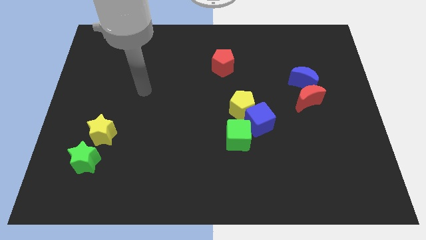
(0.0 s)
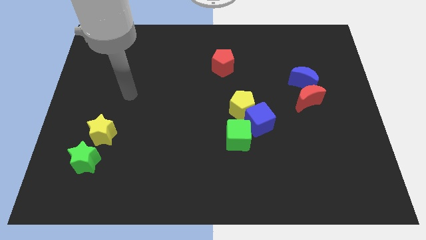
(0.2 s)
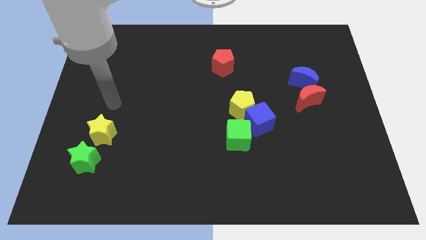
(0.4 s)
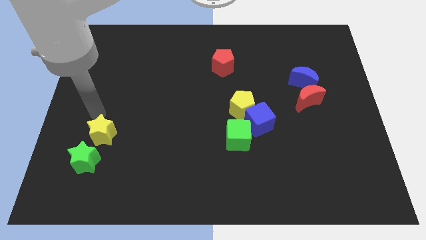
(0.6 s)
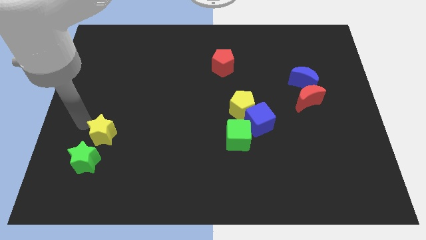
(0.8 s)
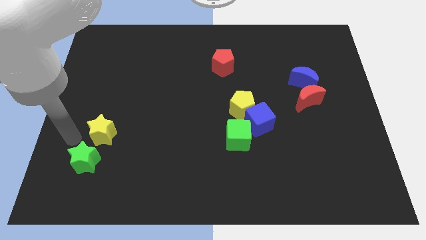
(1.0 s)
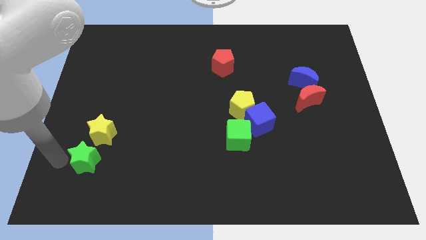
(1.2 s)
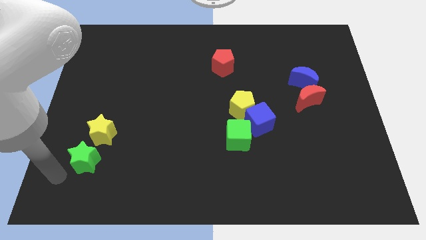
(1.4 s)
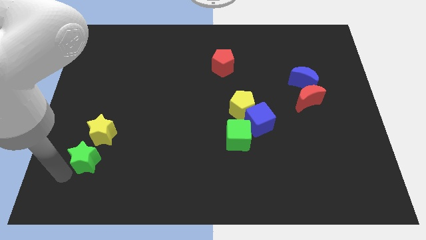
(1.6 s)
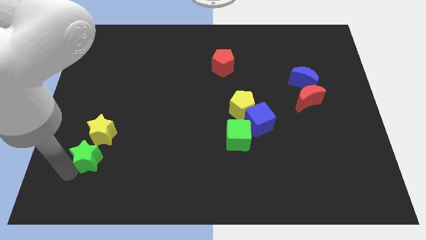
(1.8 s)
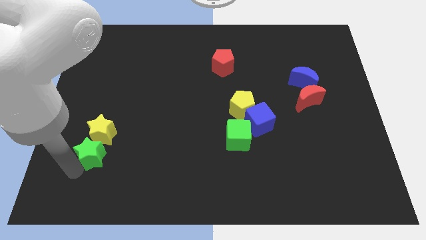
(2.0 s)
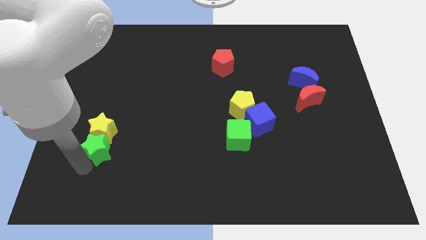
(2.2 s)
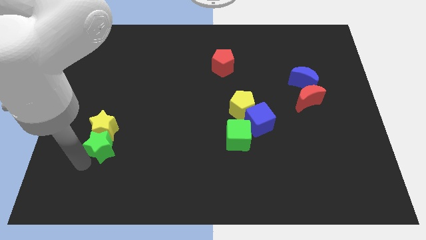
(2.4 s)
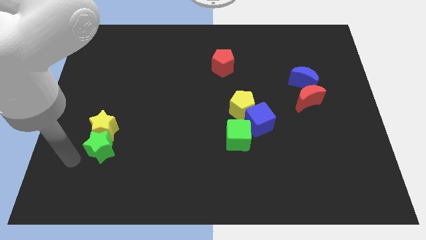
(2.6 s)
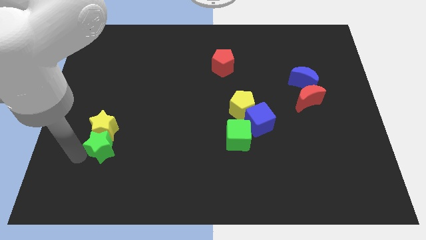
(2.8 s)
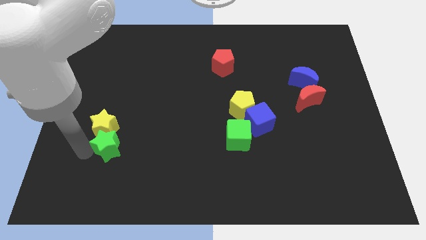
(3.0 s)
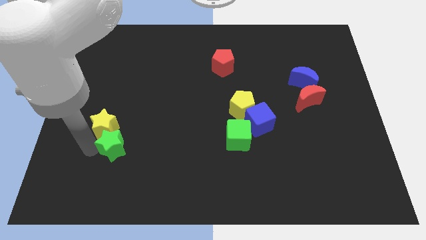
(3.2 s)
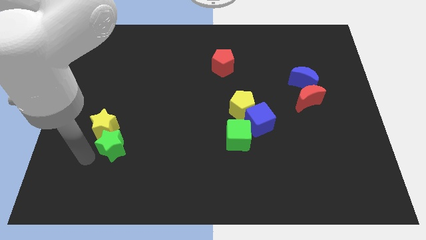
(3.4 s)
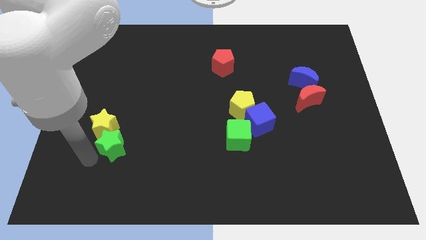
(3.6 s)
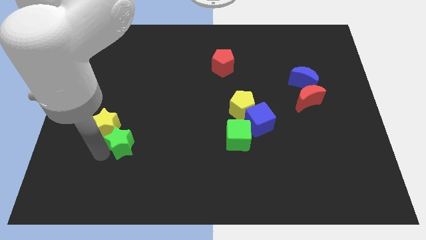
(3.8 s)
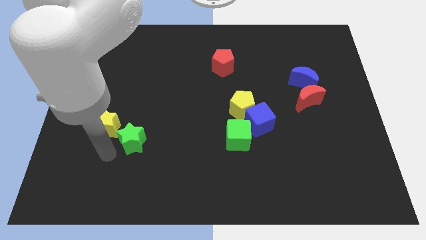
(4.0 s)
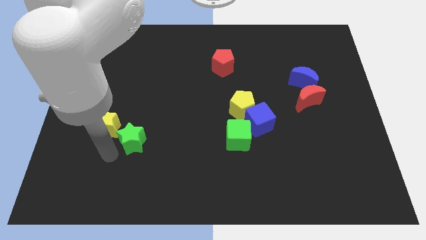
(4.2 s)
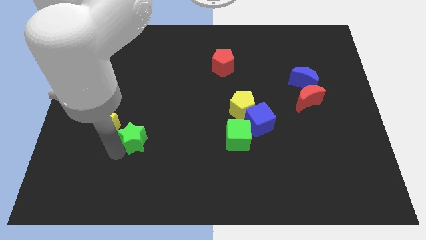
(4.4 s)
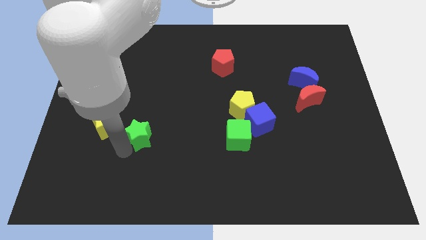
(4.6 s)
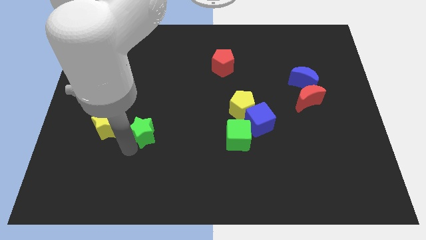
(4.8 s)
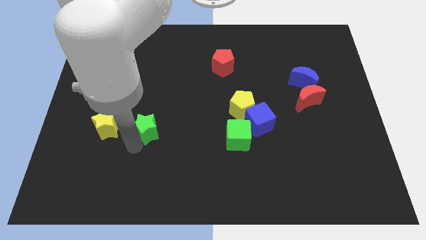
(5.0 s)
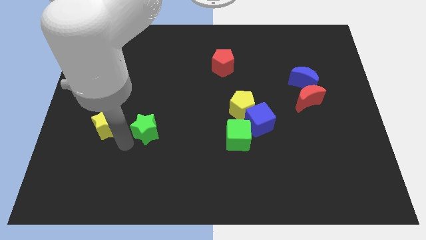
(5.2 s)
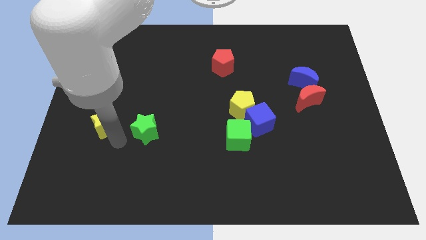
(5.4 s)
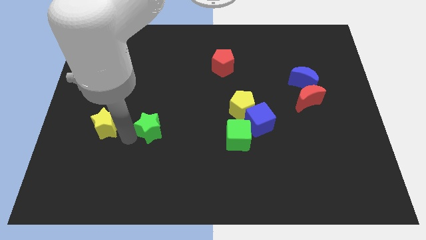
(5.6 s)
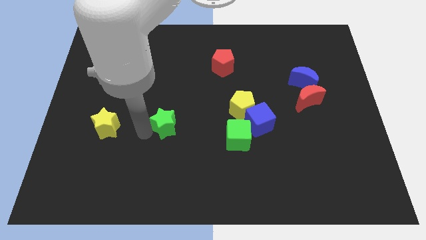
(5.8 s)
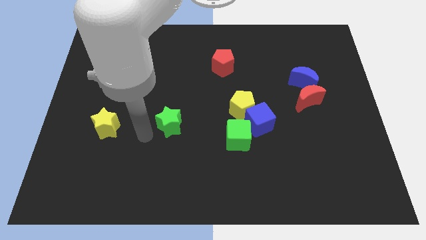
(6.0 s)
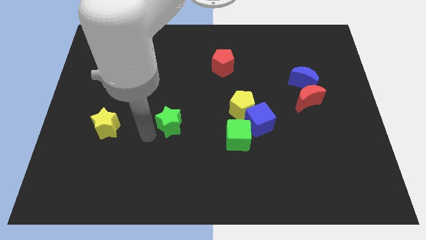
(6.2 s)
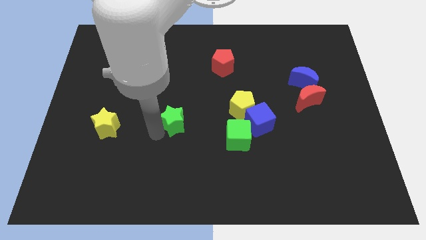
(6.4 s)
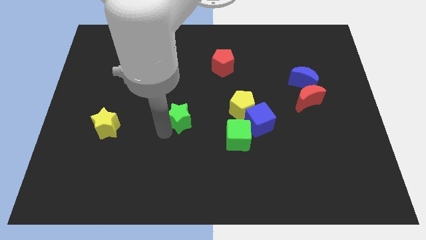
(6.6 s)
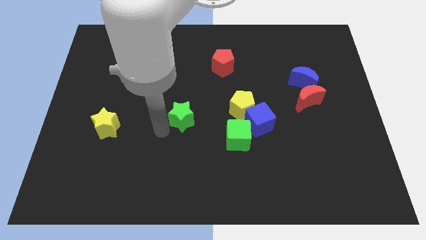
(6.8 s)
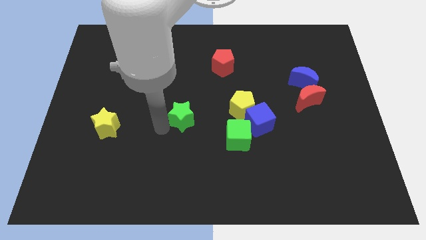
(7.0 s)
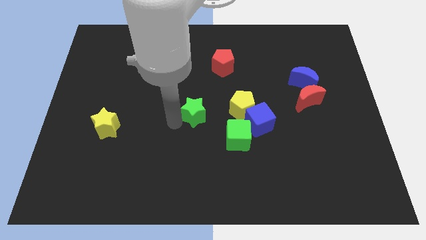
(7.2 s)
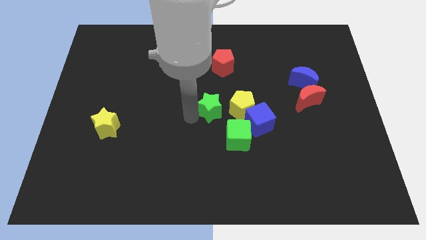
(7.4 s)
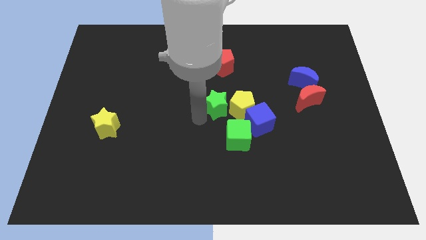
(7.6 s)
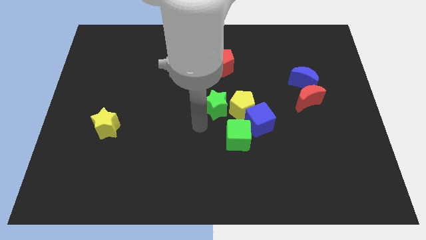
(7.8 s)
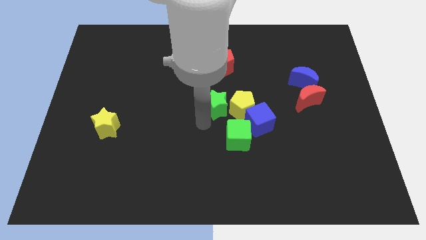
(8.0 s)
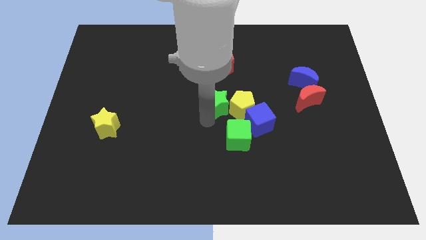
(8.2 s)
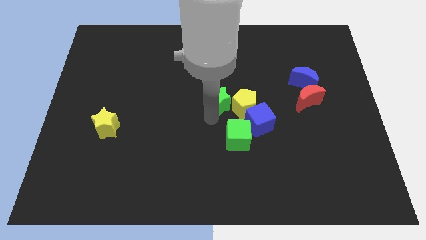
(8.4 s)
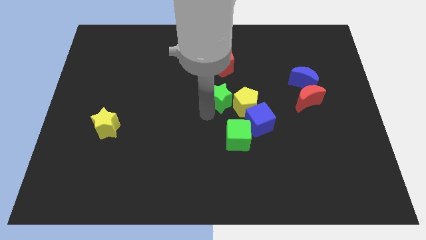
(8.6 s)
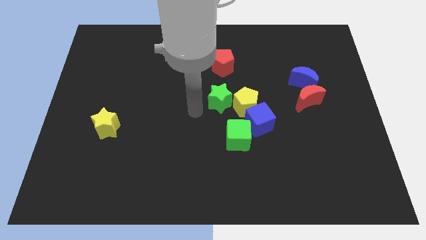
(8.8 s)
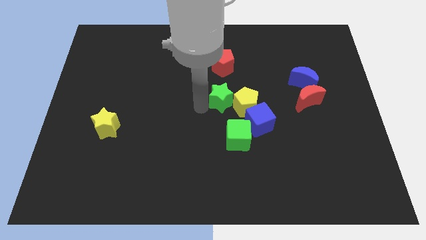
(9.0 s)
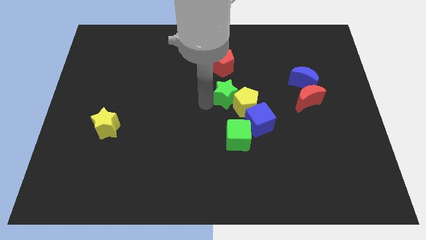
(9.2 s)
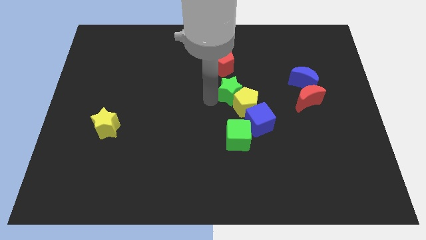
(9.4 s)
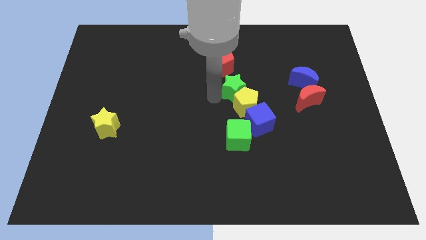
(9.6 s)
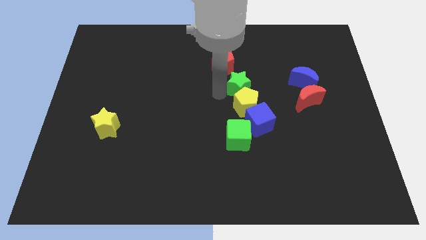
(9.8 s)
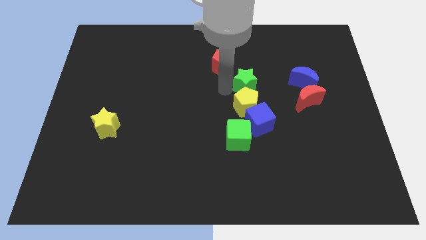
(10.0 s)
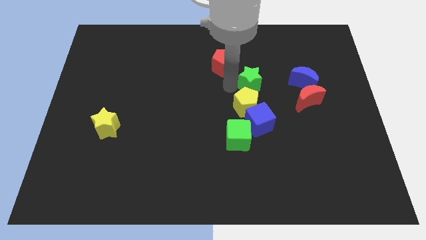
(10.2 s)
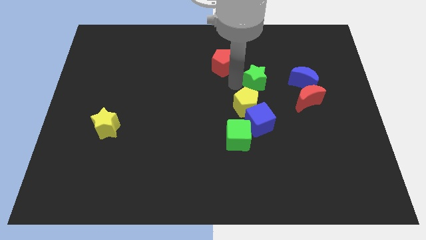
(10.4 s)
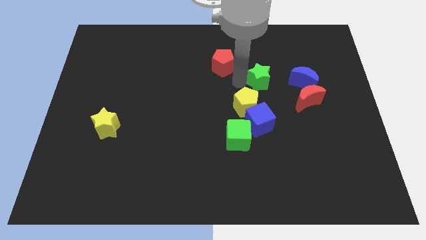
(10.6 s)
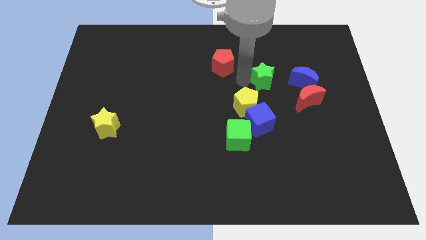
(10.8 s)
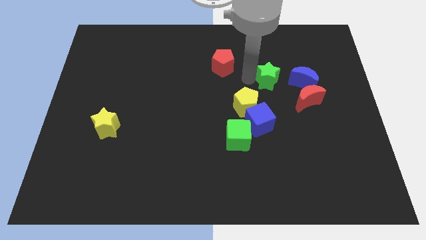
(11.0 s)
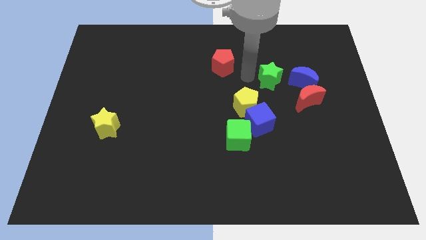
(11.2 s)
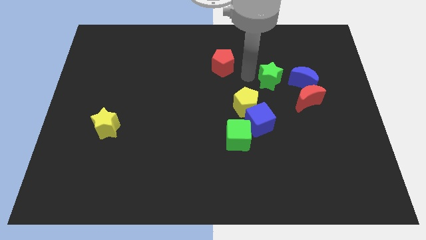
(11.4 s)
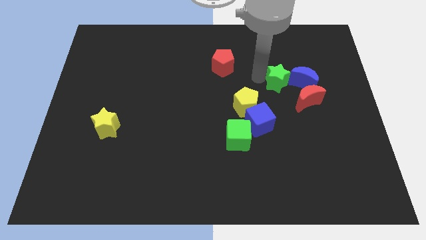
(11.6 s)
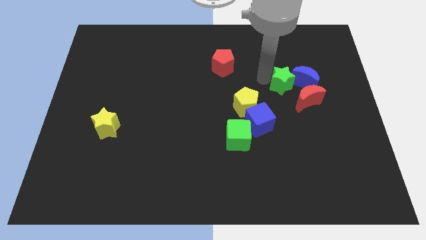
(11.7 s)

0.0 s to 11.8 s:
slide the green star to the blue moon
